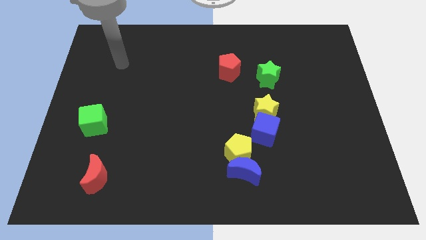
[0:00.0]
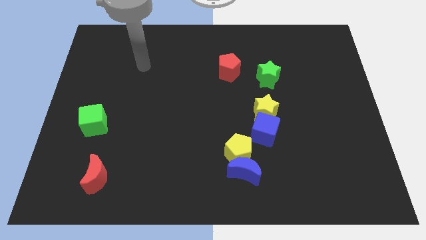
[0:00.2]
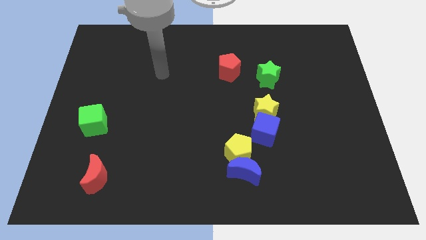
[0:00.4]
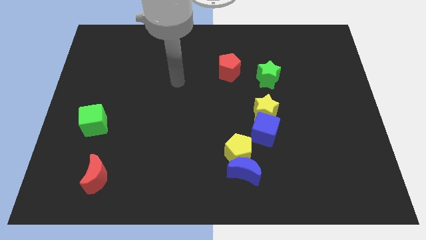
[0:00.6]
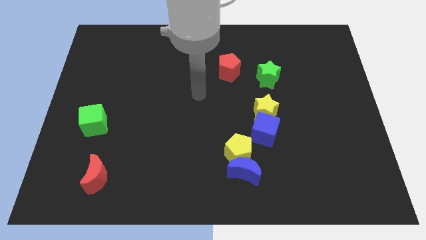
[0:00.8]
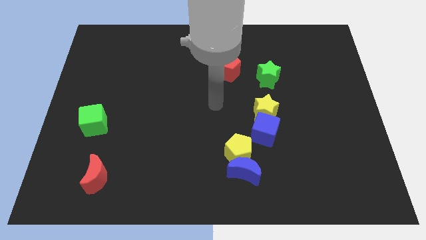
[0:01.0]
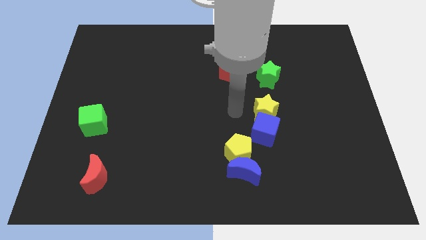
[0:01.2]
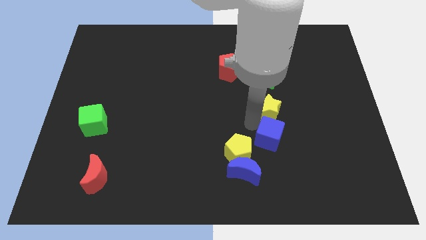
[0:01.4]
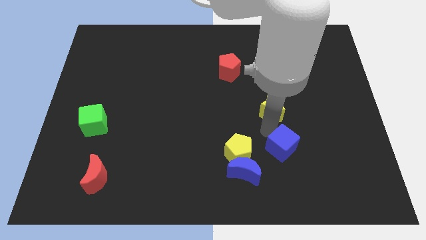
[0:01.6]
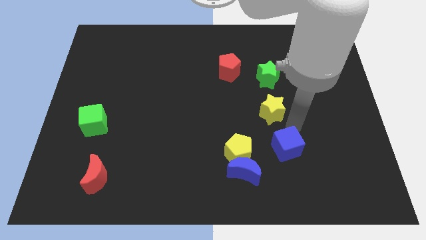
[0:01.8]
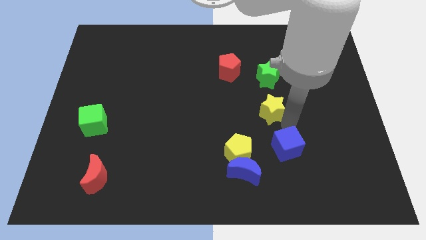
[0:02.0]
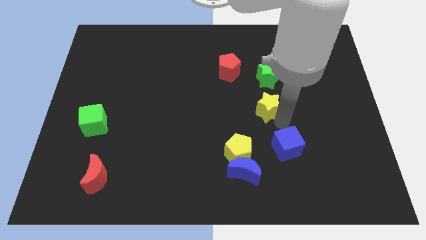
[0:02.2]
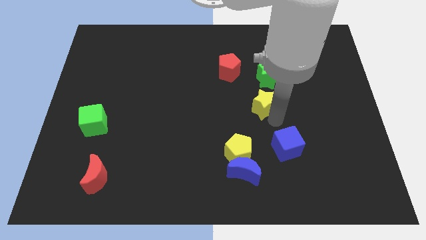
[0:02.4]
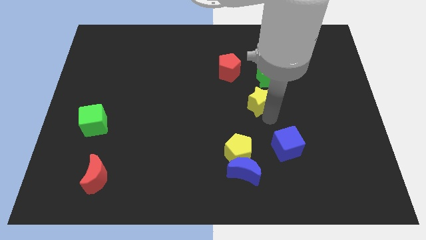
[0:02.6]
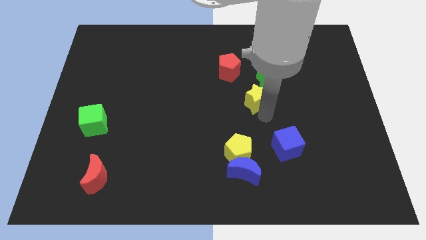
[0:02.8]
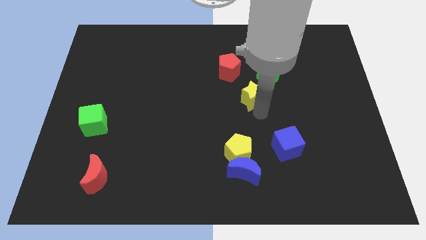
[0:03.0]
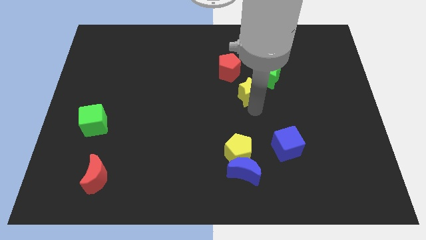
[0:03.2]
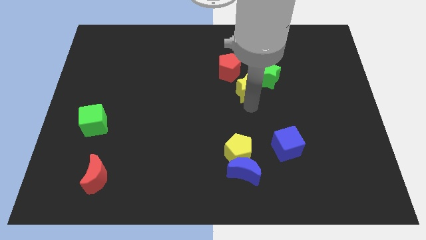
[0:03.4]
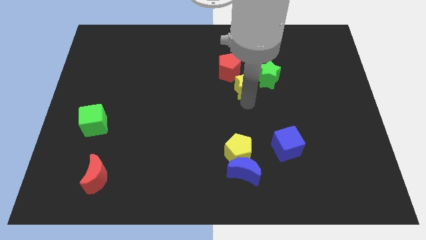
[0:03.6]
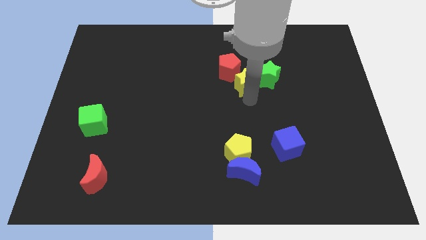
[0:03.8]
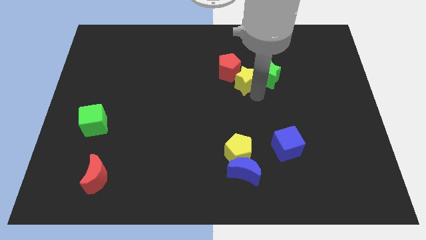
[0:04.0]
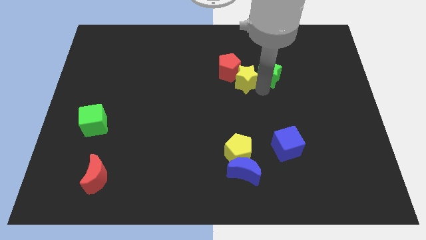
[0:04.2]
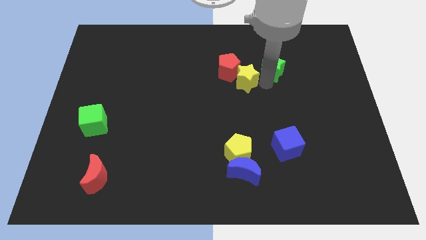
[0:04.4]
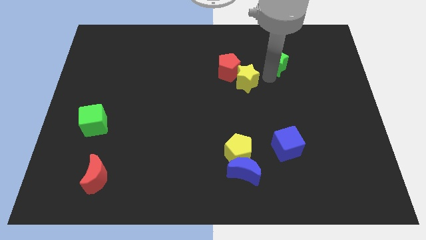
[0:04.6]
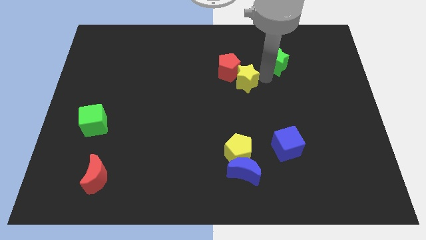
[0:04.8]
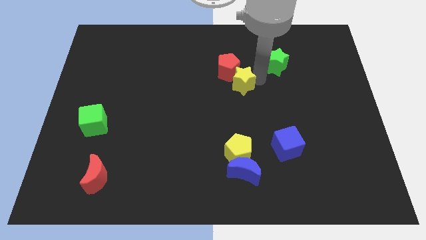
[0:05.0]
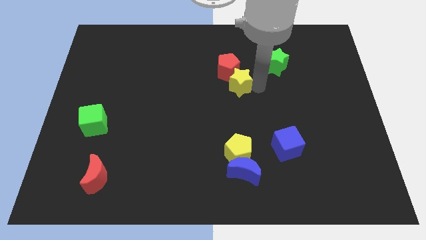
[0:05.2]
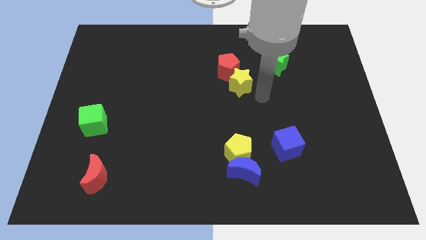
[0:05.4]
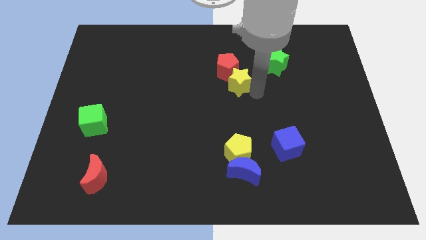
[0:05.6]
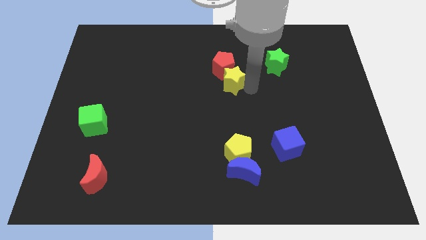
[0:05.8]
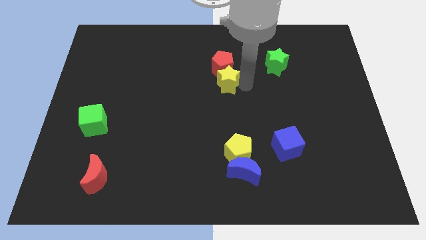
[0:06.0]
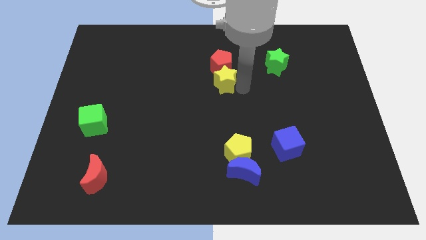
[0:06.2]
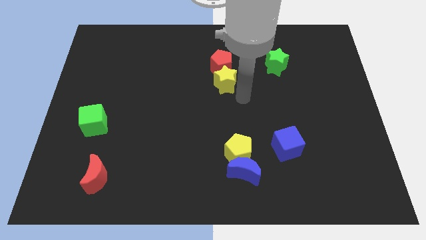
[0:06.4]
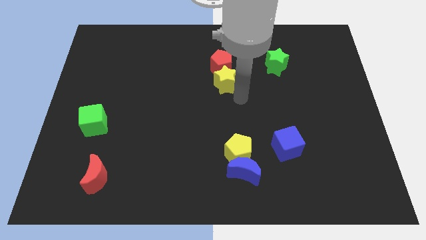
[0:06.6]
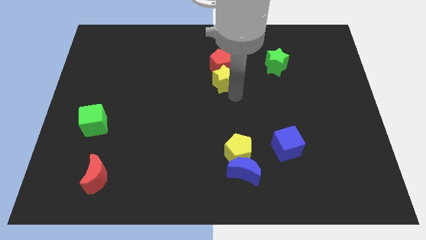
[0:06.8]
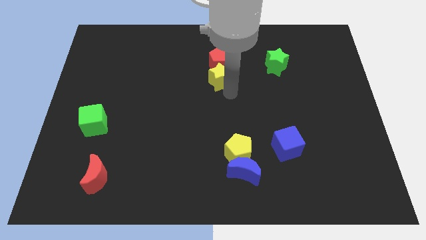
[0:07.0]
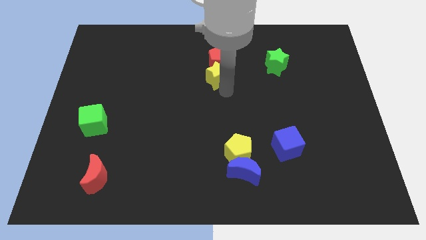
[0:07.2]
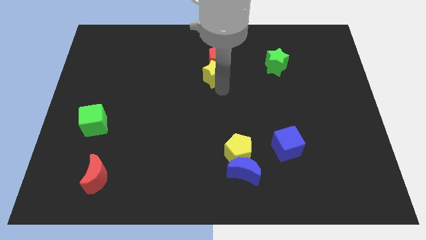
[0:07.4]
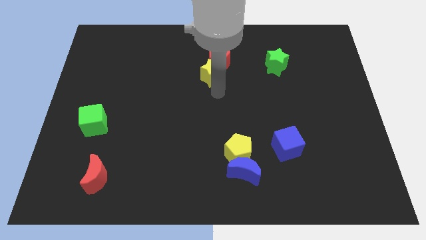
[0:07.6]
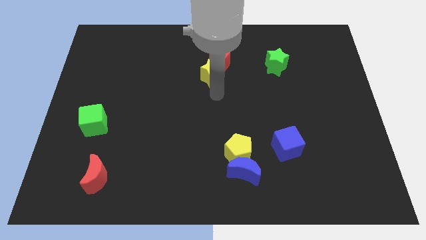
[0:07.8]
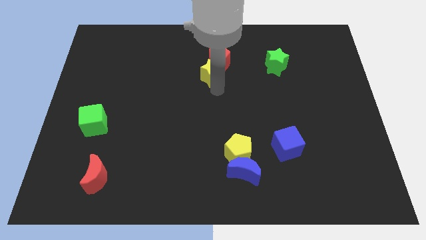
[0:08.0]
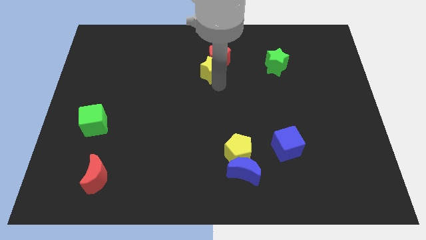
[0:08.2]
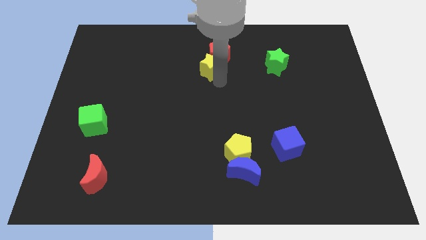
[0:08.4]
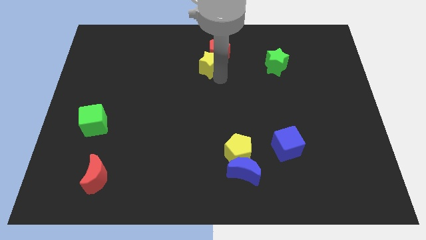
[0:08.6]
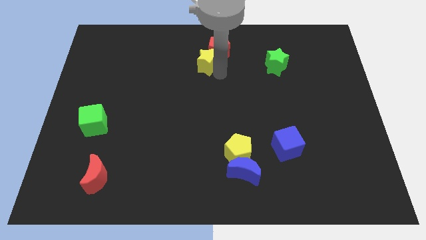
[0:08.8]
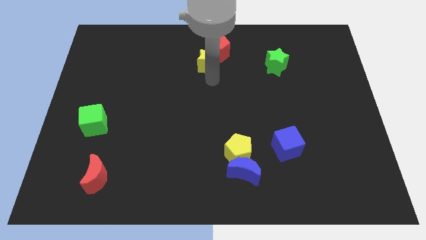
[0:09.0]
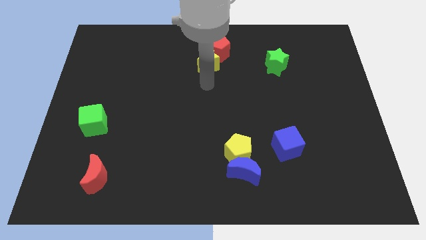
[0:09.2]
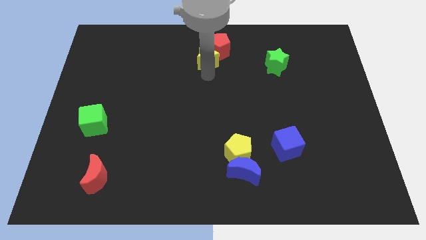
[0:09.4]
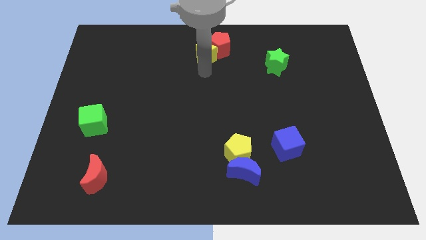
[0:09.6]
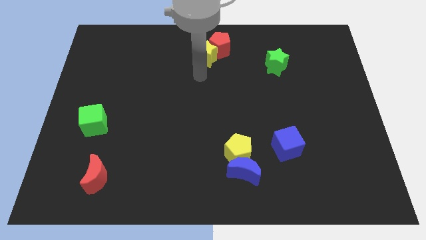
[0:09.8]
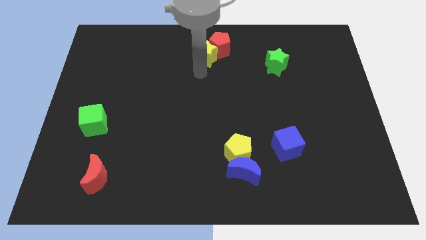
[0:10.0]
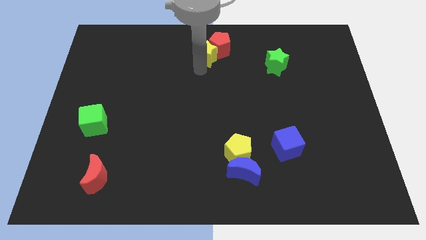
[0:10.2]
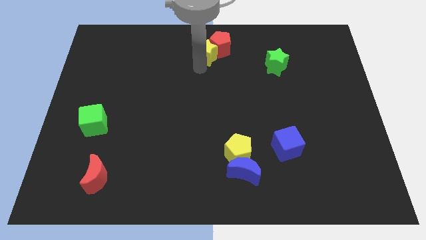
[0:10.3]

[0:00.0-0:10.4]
move the yellow star to the top

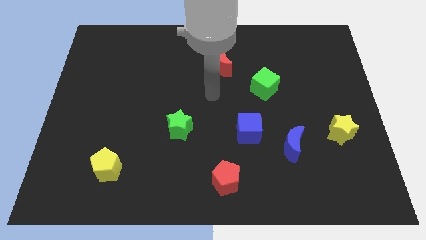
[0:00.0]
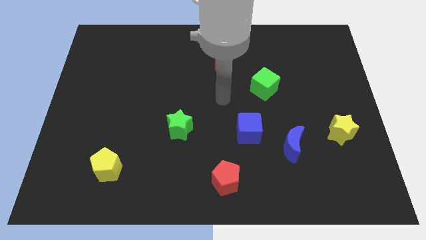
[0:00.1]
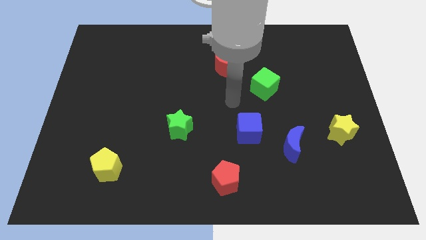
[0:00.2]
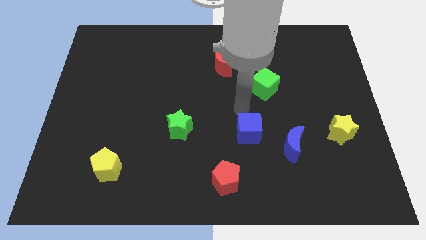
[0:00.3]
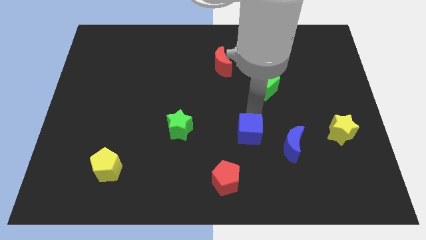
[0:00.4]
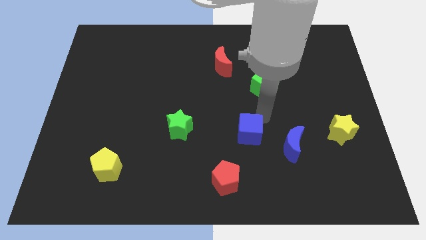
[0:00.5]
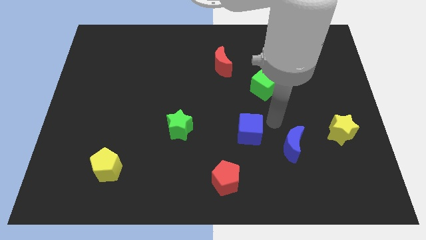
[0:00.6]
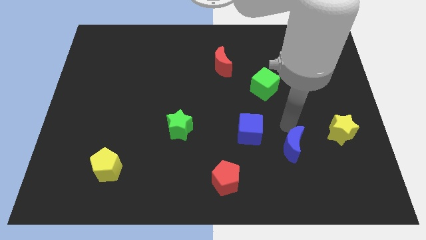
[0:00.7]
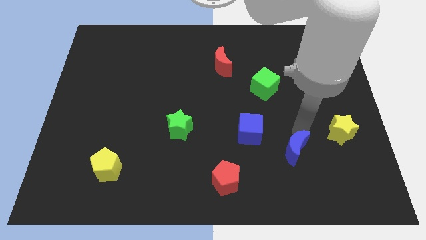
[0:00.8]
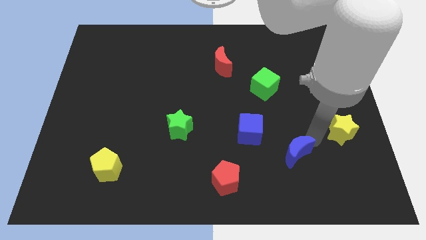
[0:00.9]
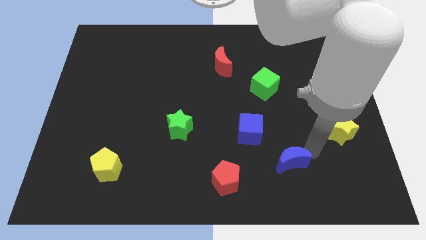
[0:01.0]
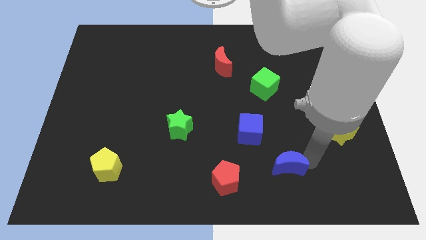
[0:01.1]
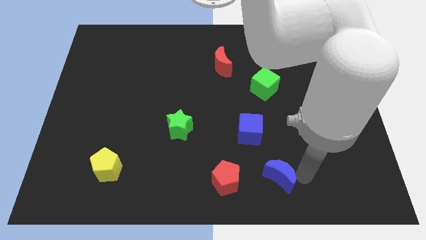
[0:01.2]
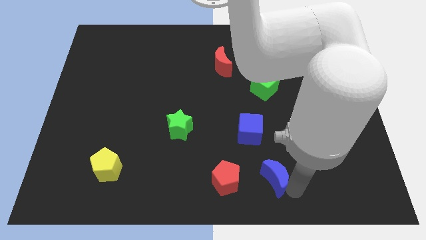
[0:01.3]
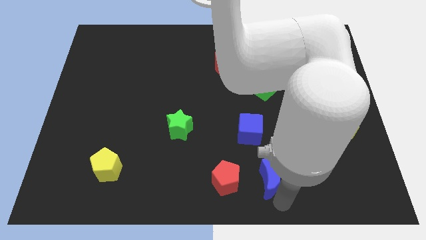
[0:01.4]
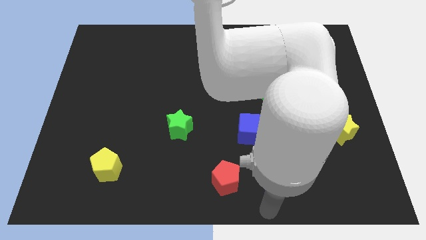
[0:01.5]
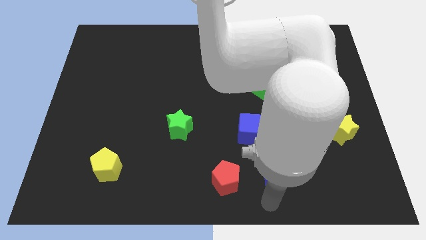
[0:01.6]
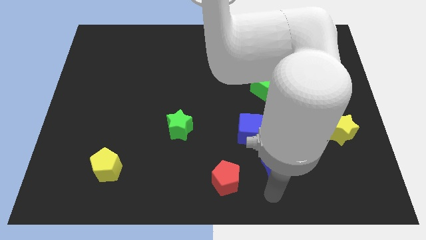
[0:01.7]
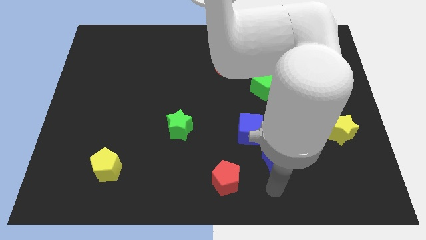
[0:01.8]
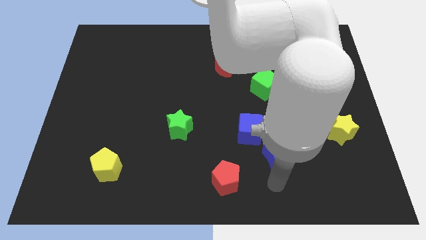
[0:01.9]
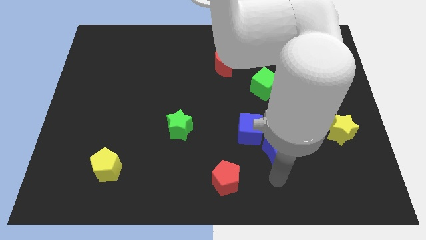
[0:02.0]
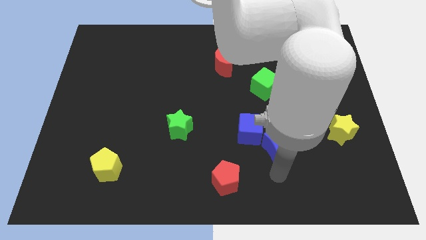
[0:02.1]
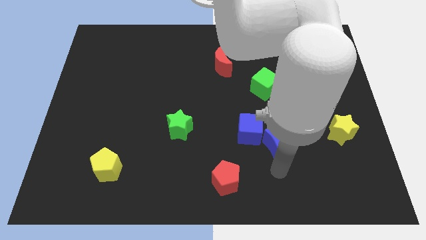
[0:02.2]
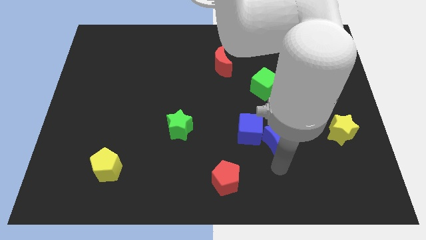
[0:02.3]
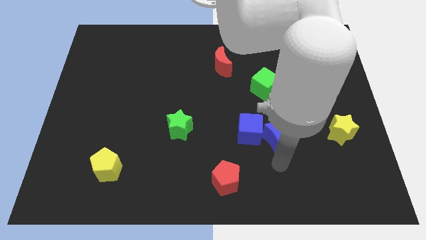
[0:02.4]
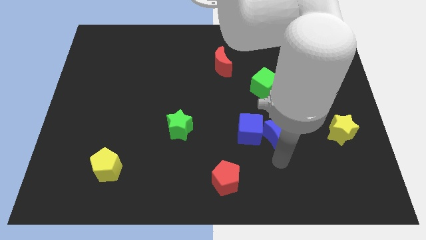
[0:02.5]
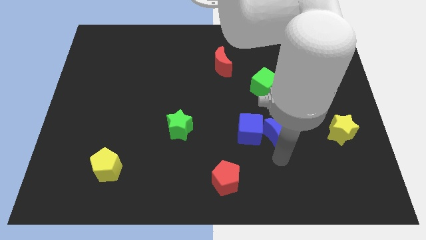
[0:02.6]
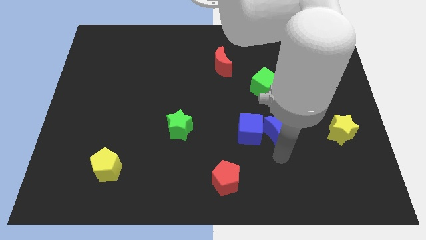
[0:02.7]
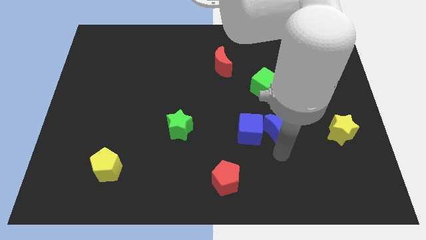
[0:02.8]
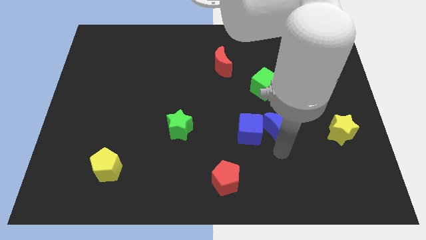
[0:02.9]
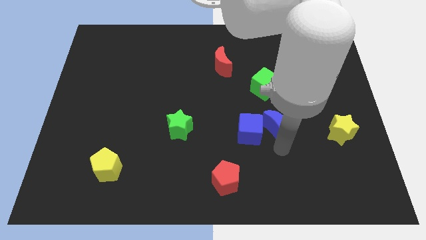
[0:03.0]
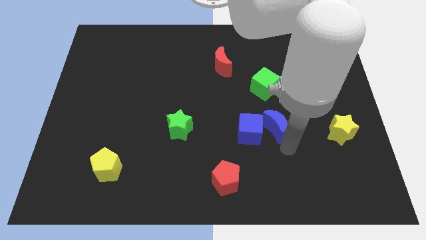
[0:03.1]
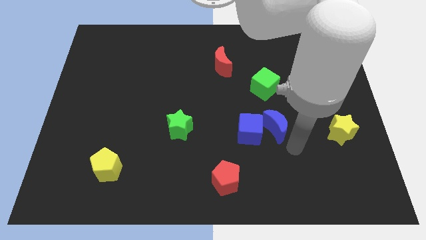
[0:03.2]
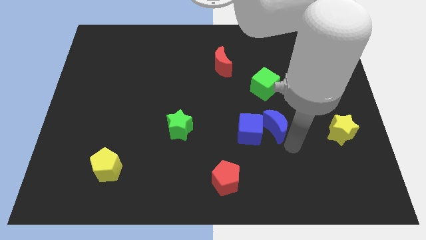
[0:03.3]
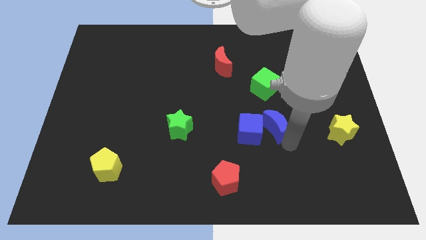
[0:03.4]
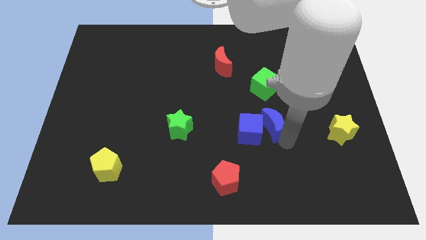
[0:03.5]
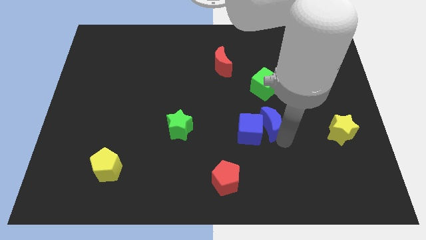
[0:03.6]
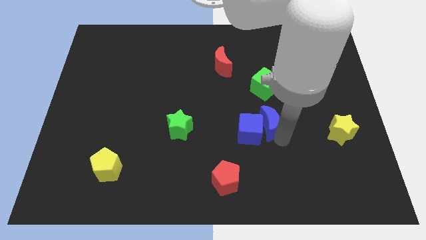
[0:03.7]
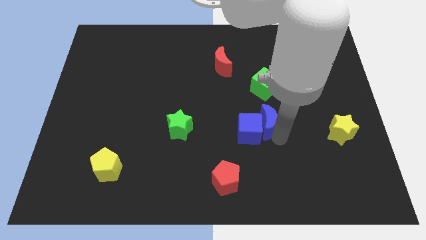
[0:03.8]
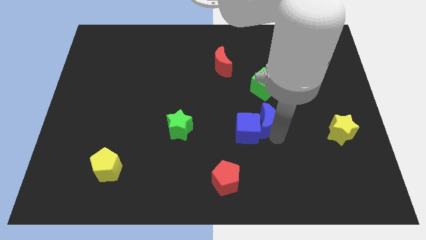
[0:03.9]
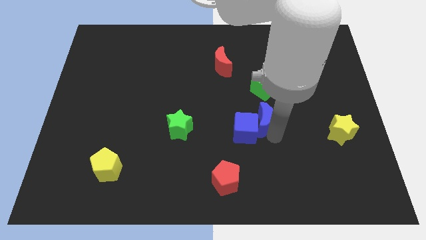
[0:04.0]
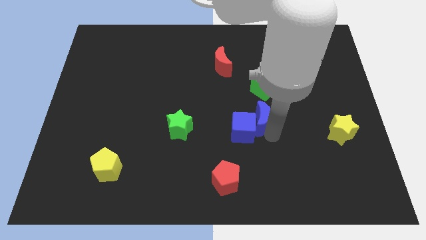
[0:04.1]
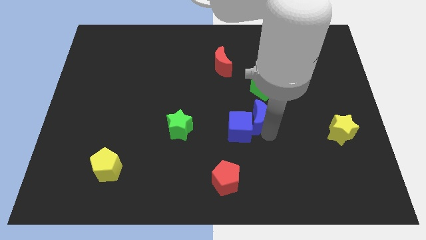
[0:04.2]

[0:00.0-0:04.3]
slide the blue moon to the center
